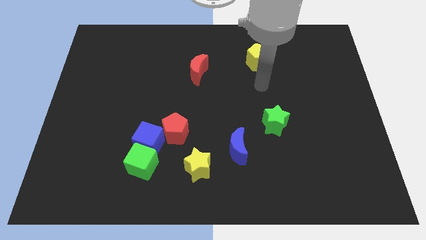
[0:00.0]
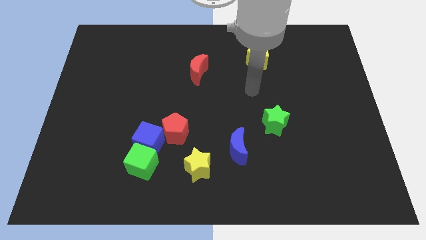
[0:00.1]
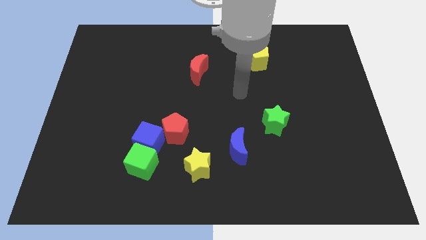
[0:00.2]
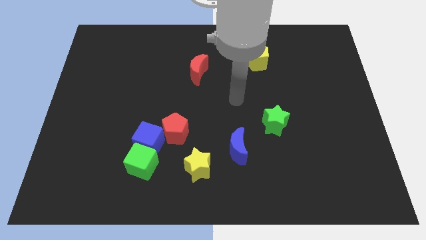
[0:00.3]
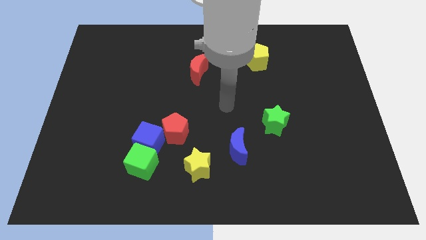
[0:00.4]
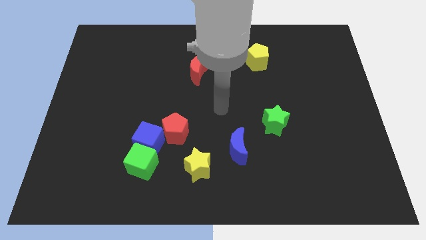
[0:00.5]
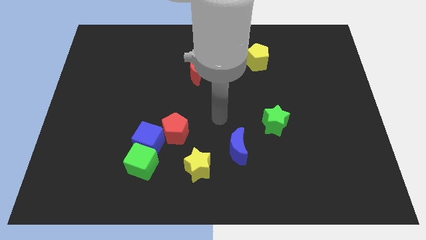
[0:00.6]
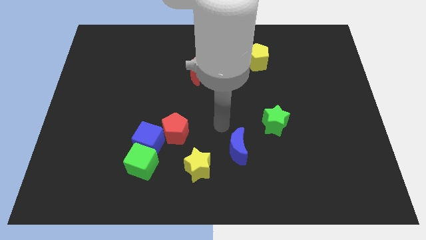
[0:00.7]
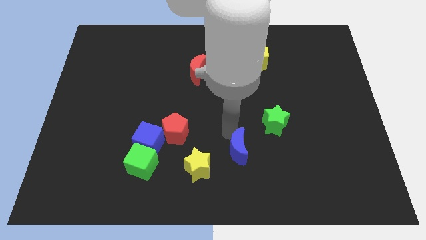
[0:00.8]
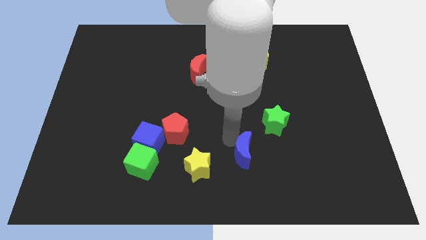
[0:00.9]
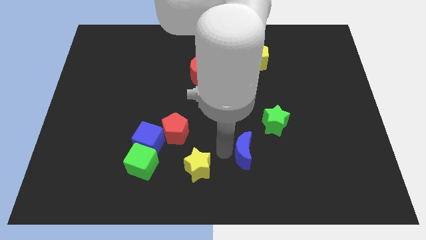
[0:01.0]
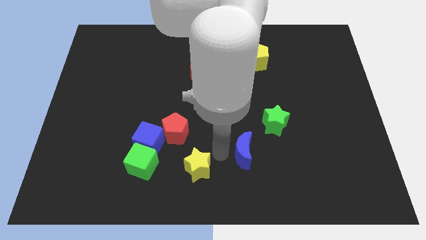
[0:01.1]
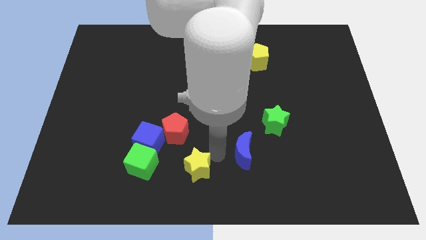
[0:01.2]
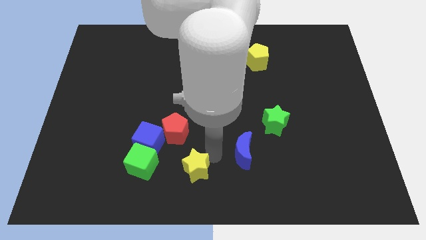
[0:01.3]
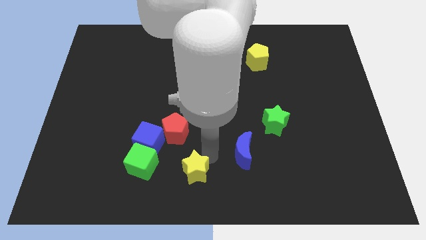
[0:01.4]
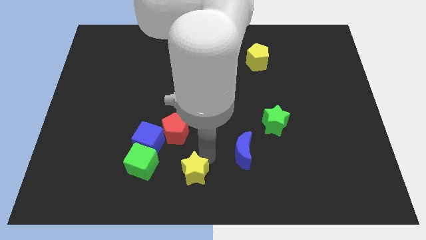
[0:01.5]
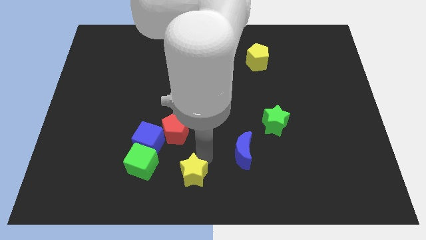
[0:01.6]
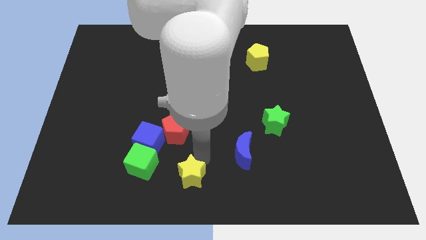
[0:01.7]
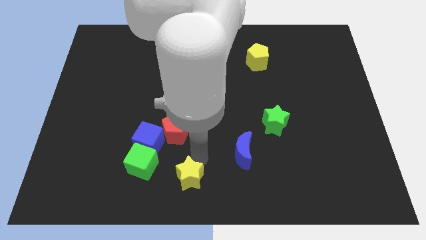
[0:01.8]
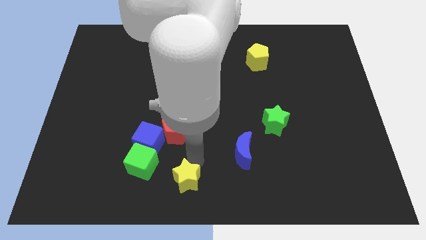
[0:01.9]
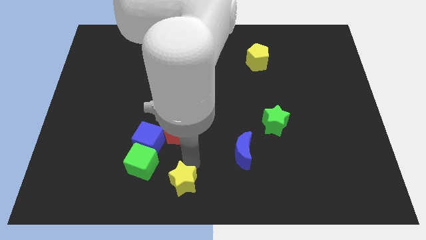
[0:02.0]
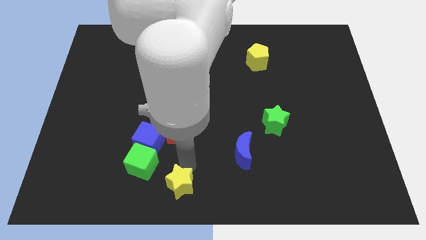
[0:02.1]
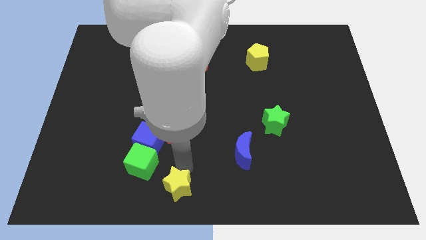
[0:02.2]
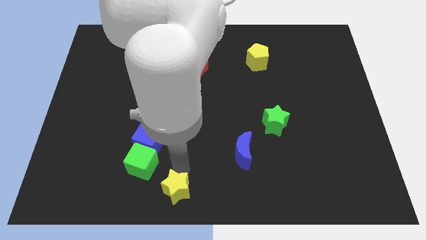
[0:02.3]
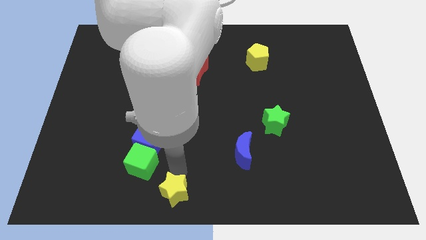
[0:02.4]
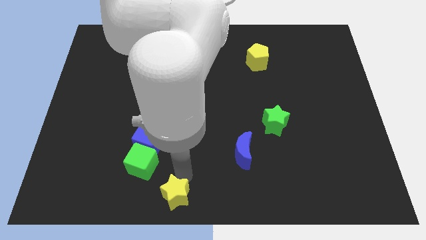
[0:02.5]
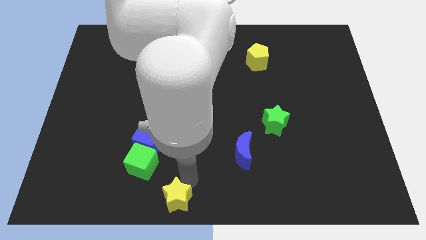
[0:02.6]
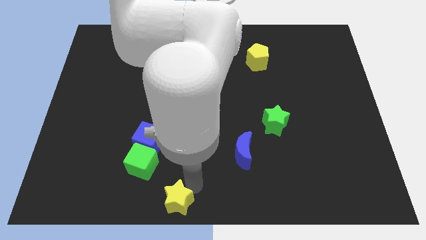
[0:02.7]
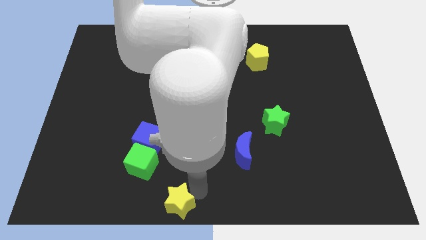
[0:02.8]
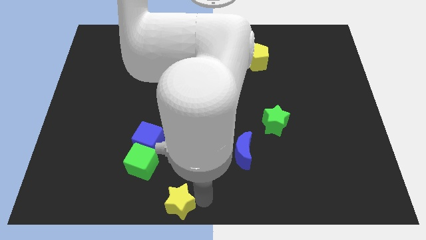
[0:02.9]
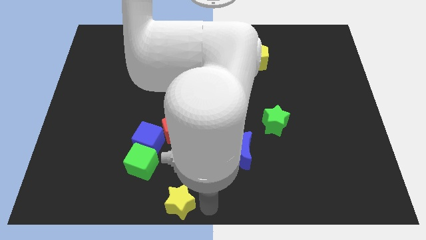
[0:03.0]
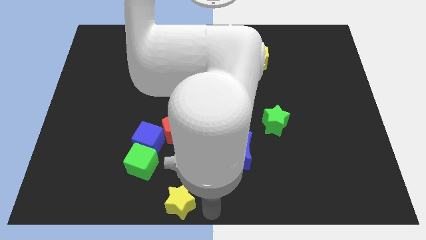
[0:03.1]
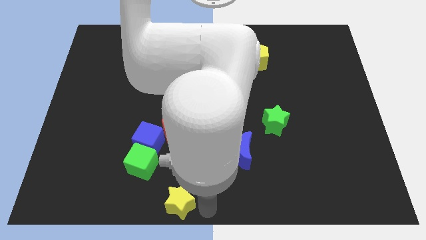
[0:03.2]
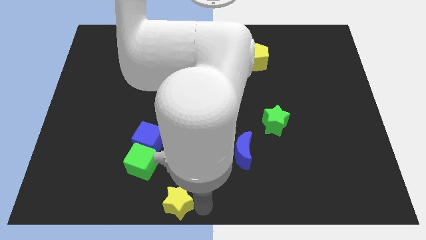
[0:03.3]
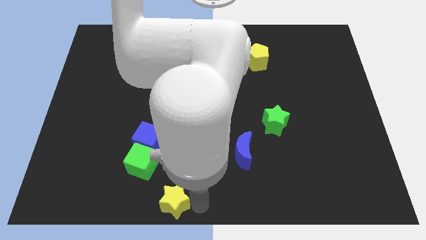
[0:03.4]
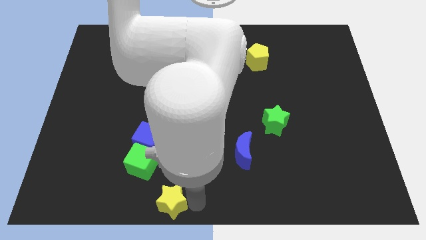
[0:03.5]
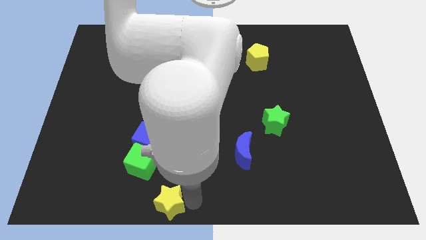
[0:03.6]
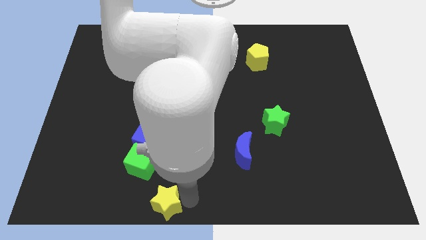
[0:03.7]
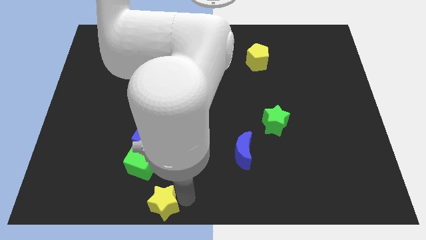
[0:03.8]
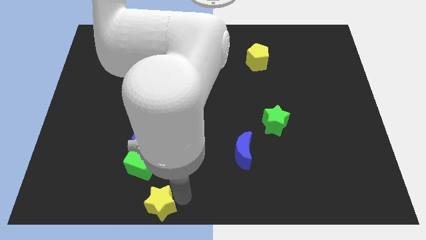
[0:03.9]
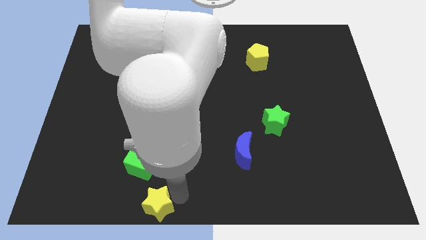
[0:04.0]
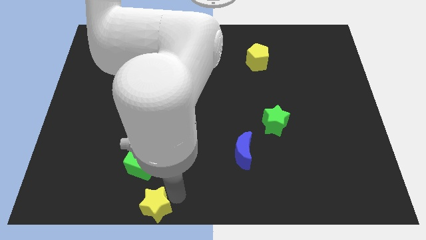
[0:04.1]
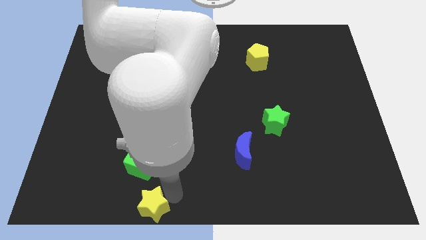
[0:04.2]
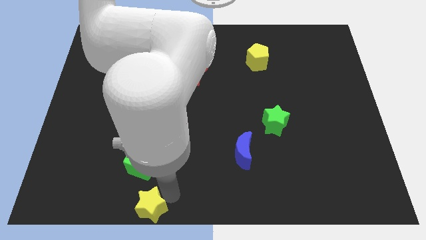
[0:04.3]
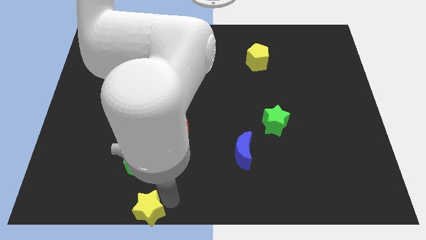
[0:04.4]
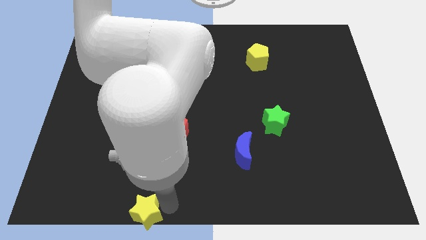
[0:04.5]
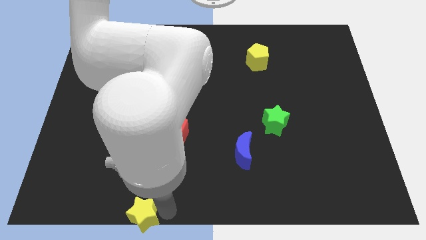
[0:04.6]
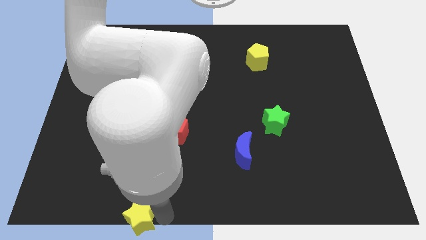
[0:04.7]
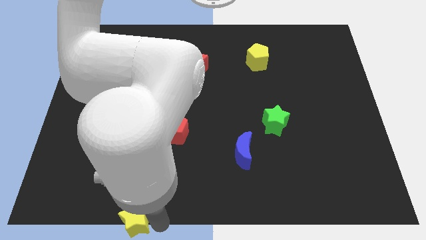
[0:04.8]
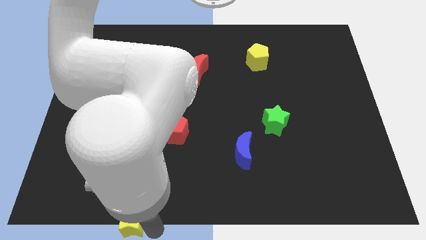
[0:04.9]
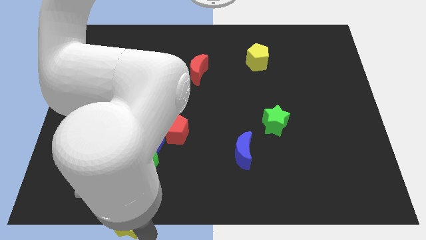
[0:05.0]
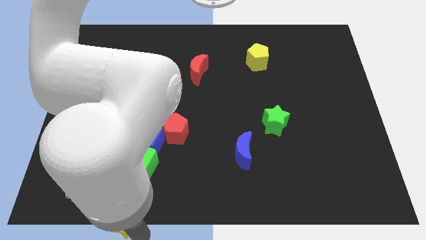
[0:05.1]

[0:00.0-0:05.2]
slide the yellow star a little to the left

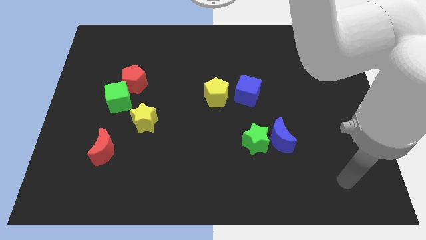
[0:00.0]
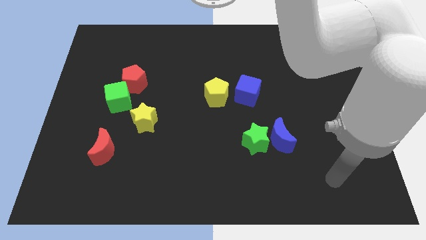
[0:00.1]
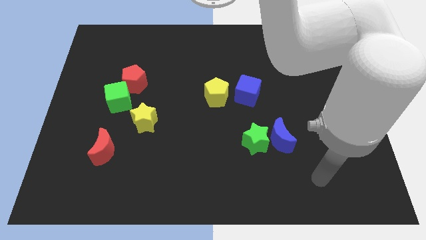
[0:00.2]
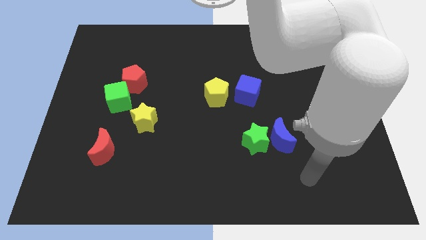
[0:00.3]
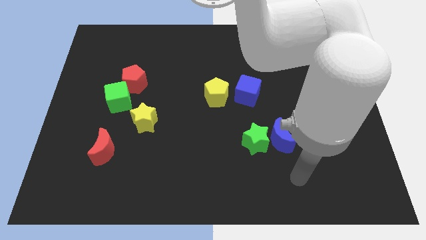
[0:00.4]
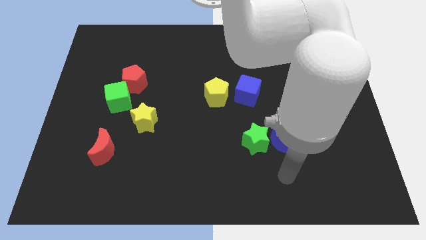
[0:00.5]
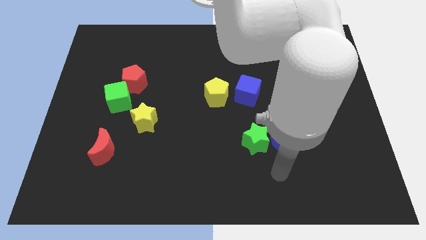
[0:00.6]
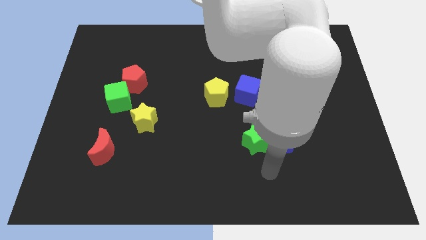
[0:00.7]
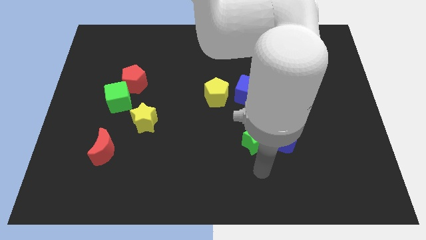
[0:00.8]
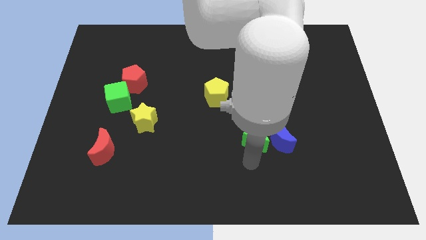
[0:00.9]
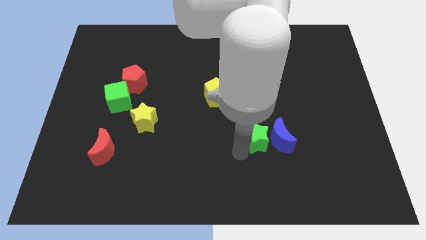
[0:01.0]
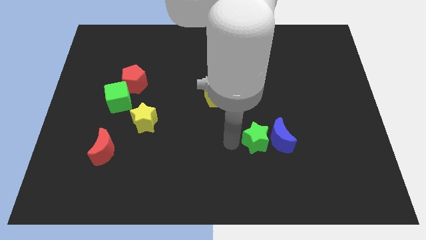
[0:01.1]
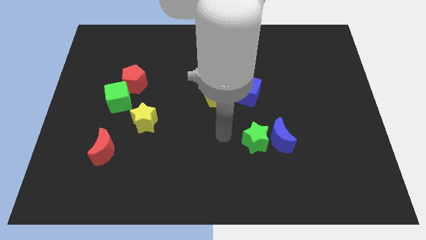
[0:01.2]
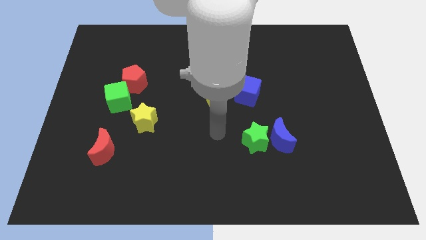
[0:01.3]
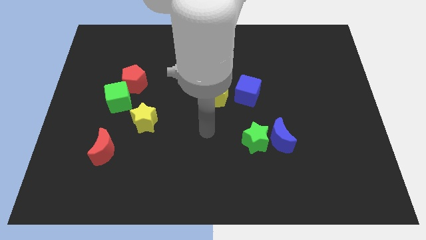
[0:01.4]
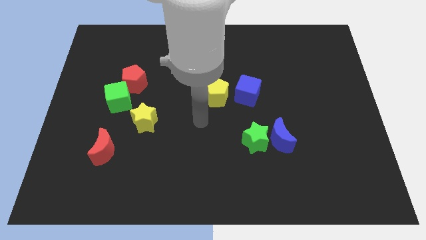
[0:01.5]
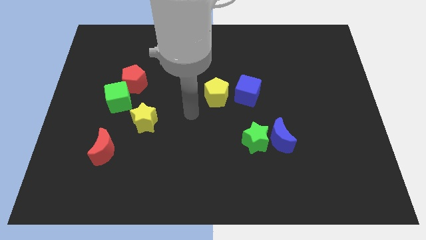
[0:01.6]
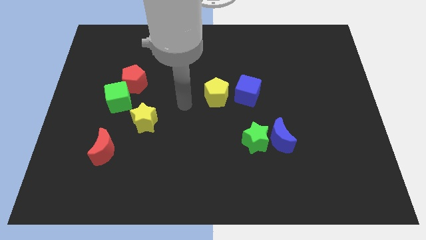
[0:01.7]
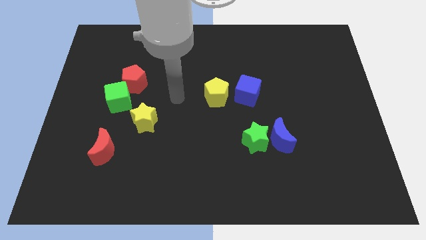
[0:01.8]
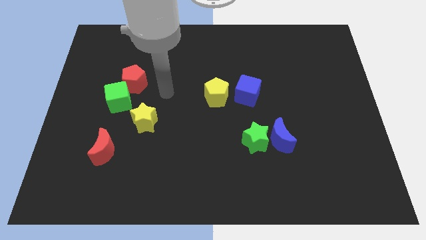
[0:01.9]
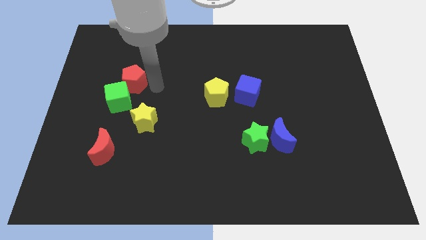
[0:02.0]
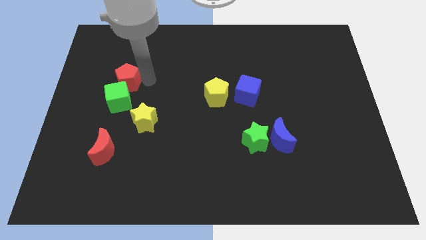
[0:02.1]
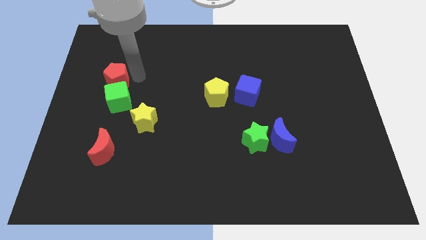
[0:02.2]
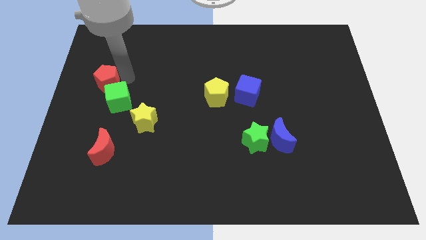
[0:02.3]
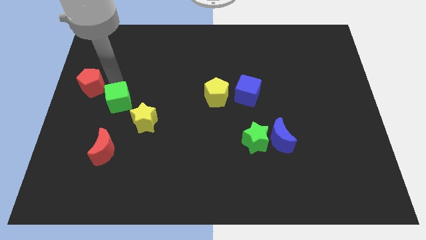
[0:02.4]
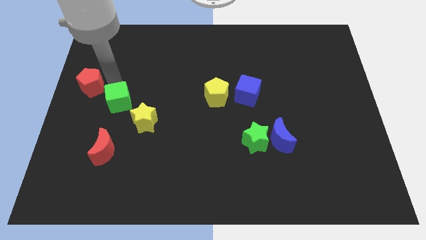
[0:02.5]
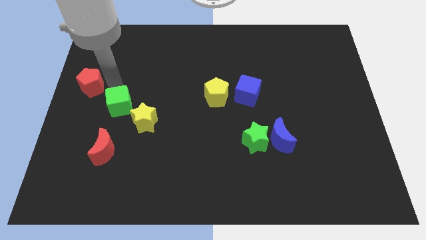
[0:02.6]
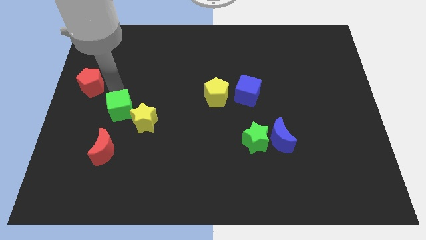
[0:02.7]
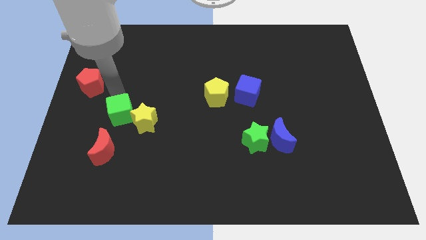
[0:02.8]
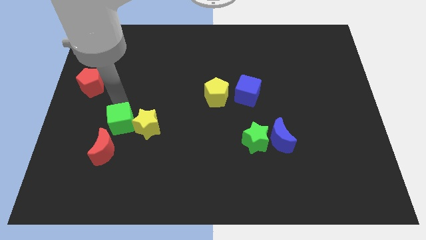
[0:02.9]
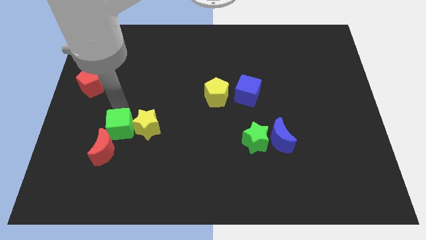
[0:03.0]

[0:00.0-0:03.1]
move the green cube slightly downwards

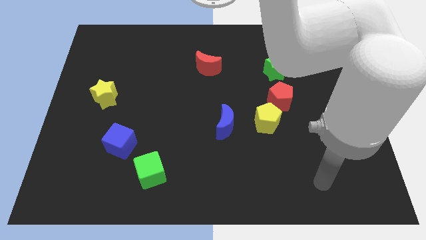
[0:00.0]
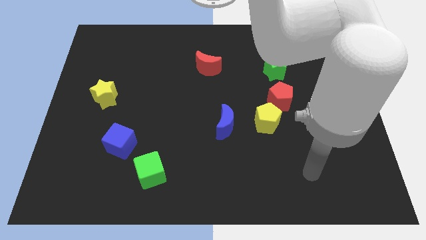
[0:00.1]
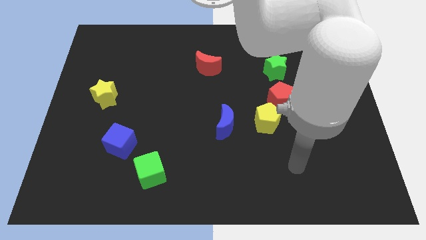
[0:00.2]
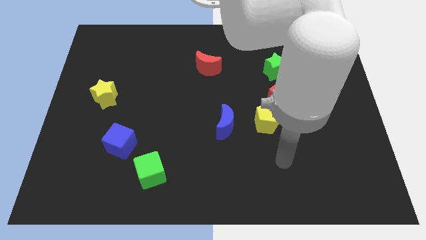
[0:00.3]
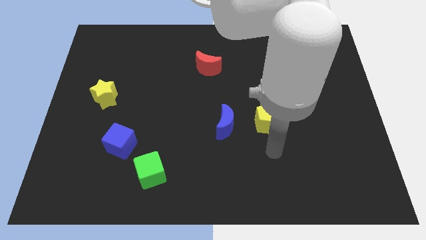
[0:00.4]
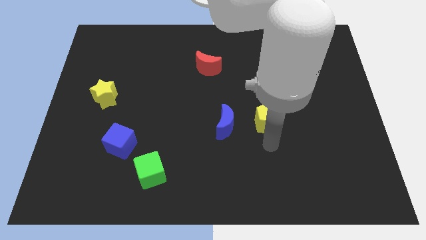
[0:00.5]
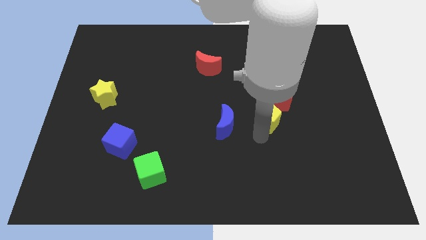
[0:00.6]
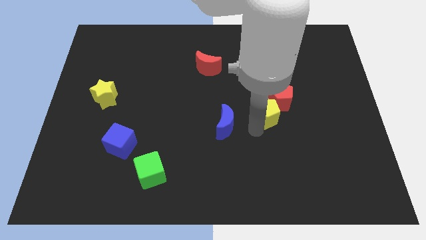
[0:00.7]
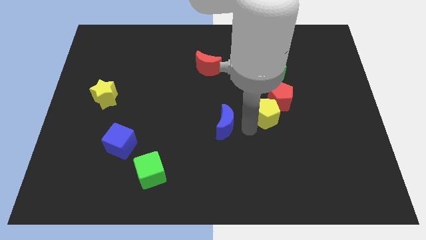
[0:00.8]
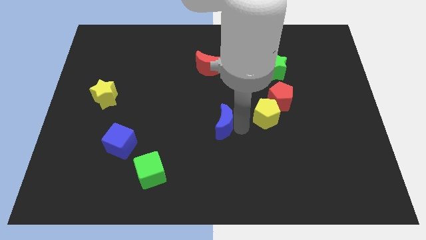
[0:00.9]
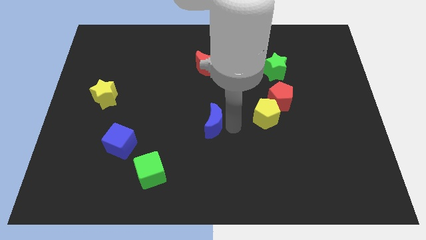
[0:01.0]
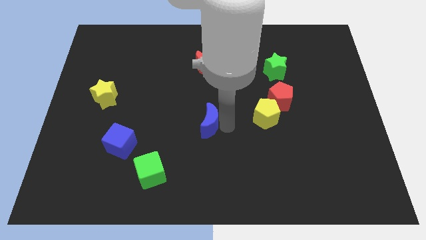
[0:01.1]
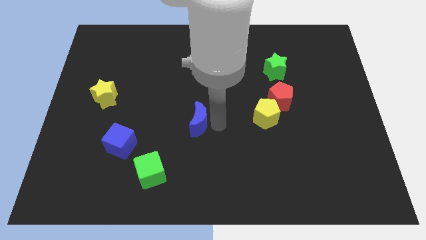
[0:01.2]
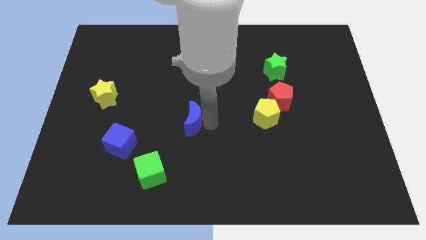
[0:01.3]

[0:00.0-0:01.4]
slightly move the blue moon to the left
